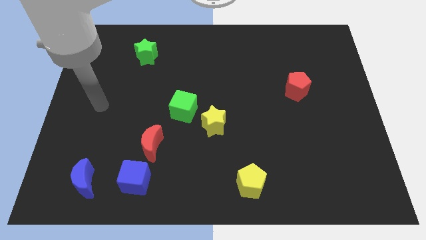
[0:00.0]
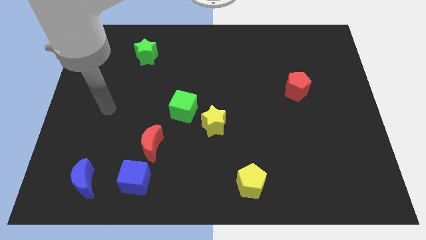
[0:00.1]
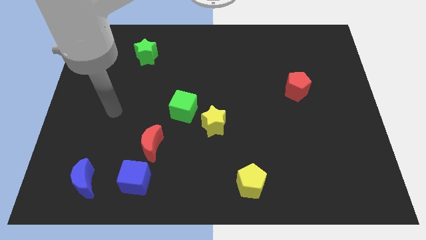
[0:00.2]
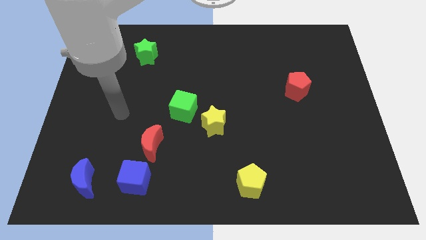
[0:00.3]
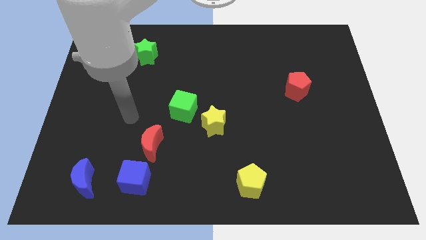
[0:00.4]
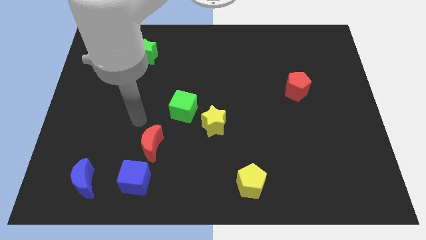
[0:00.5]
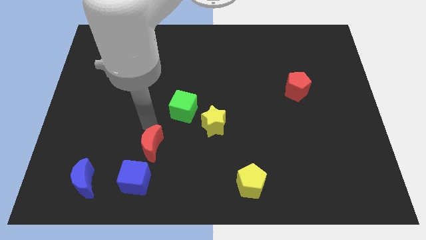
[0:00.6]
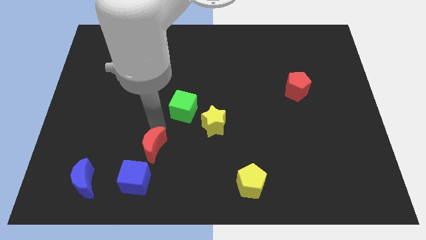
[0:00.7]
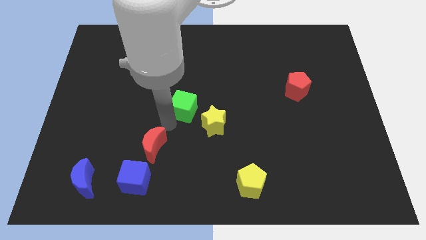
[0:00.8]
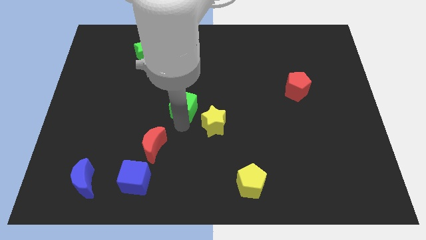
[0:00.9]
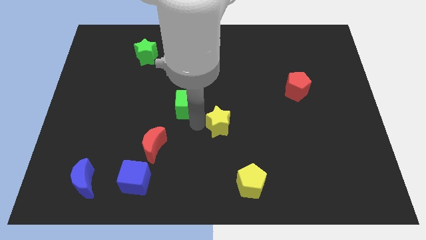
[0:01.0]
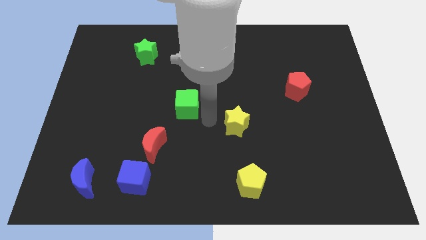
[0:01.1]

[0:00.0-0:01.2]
move the green cube away from the yellow star

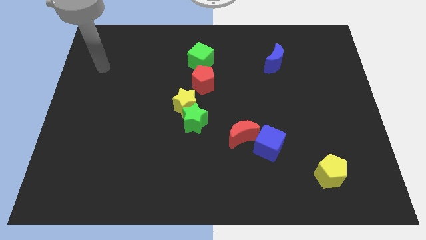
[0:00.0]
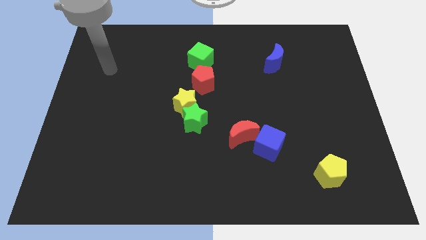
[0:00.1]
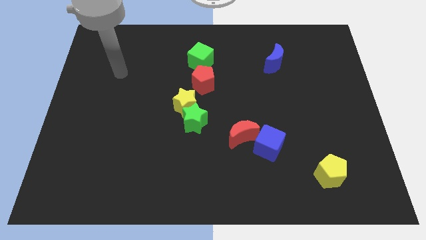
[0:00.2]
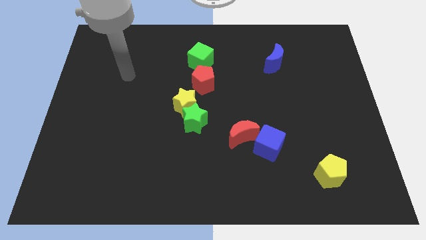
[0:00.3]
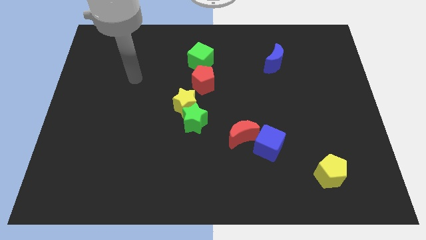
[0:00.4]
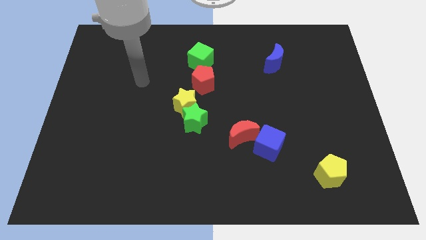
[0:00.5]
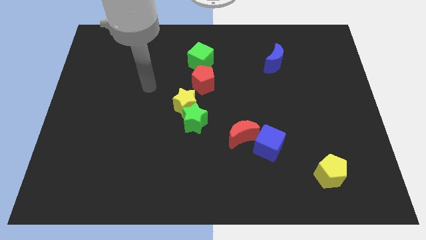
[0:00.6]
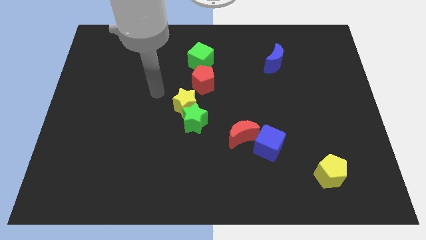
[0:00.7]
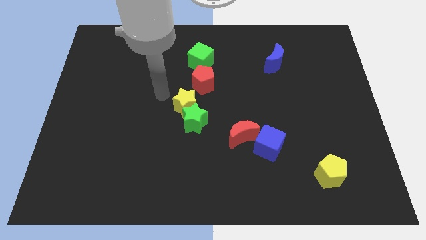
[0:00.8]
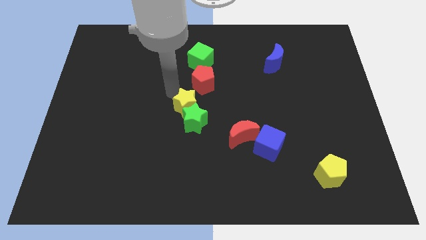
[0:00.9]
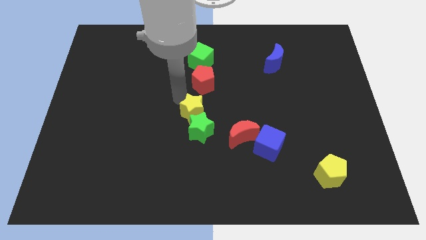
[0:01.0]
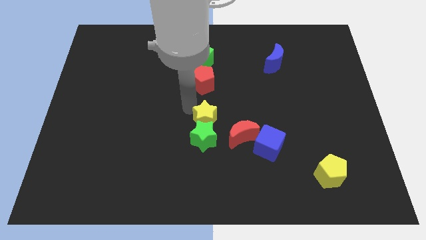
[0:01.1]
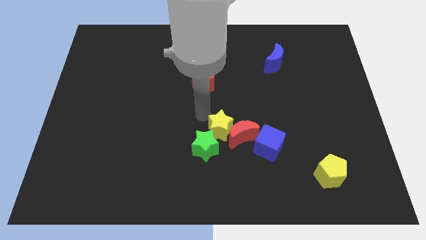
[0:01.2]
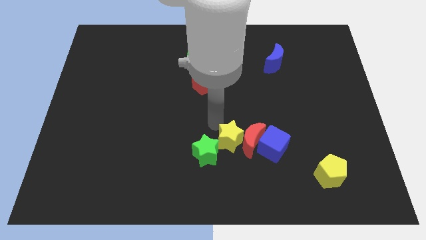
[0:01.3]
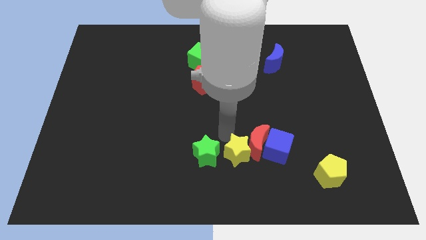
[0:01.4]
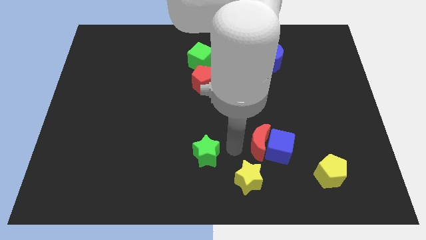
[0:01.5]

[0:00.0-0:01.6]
pull the green star apart from the yellow star

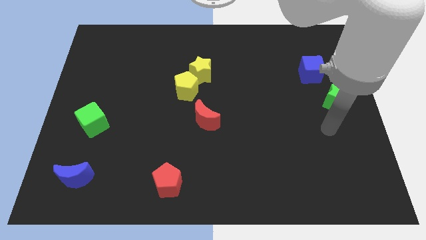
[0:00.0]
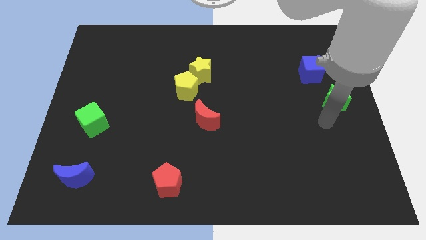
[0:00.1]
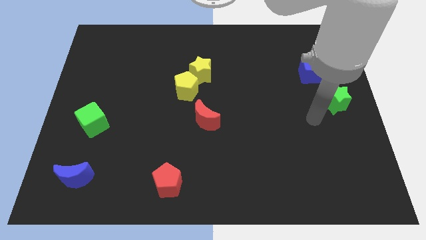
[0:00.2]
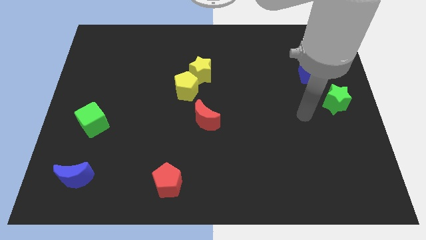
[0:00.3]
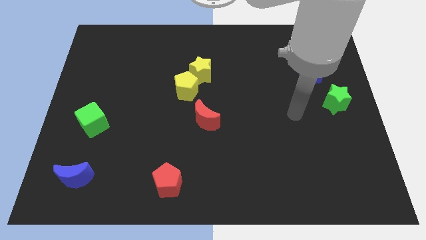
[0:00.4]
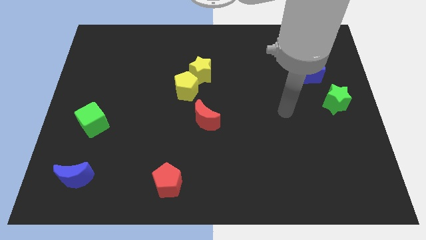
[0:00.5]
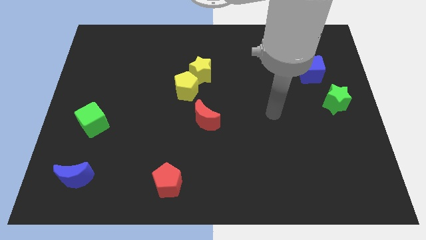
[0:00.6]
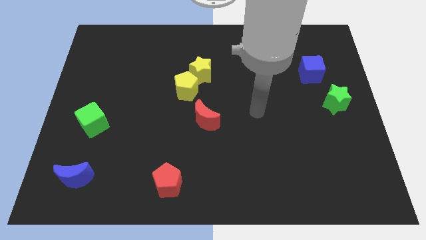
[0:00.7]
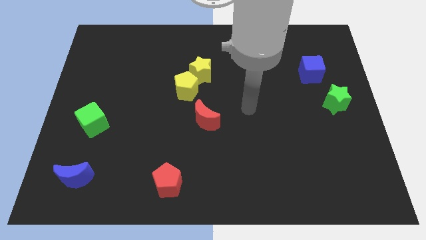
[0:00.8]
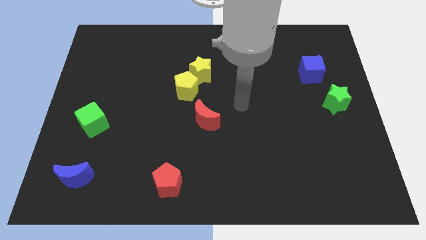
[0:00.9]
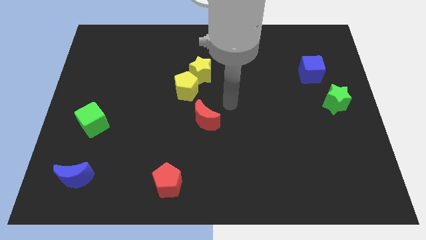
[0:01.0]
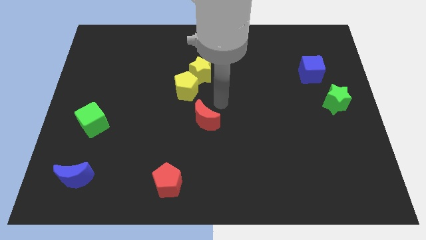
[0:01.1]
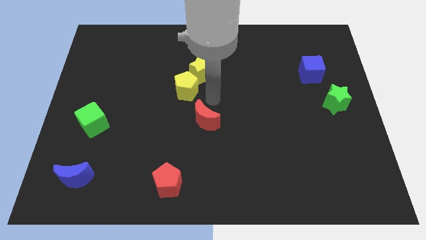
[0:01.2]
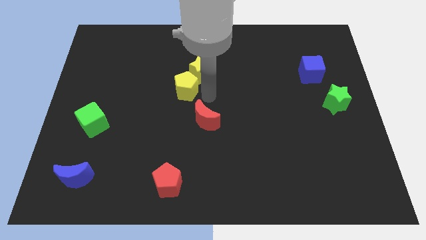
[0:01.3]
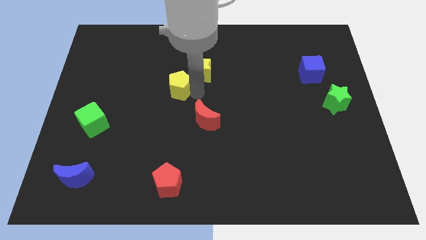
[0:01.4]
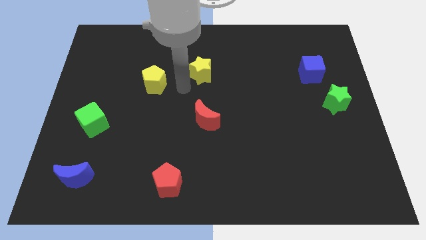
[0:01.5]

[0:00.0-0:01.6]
separate the yellow star from the yellow pentagon

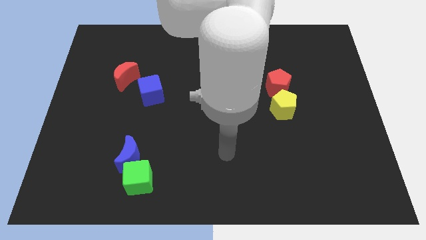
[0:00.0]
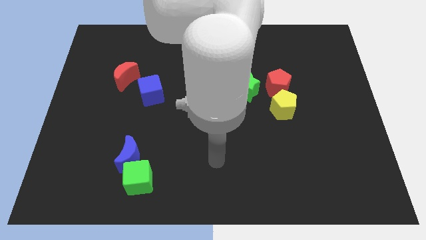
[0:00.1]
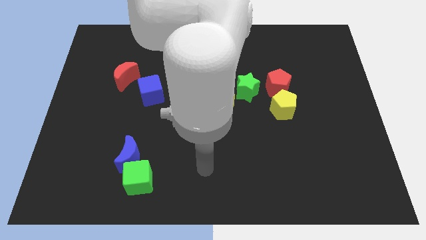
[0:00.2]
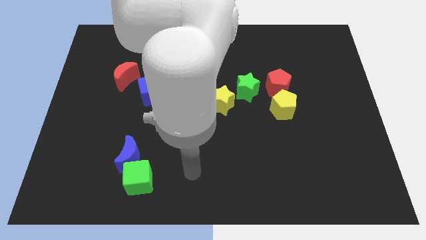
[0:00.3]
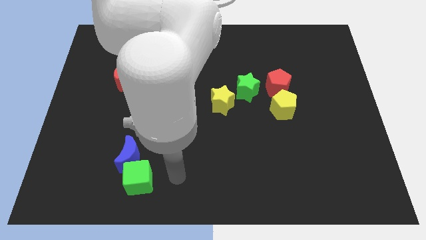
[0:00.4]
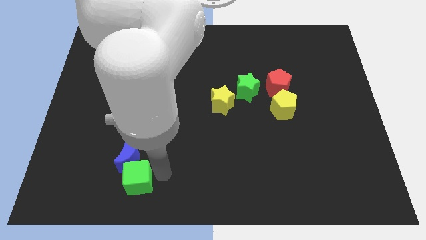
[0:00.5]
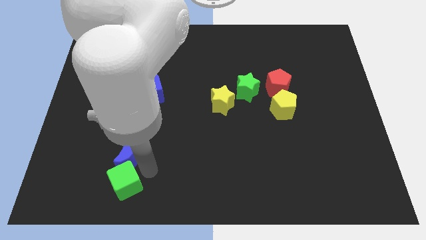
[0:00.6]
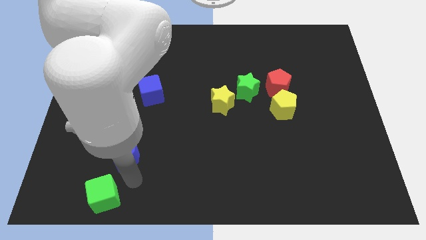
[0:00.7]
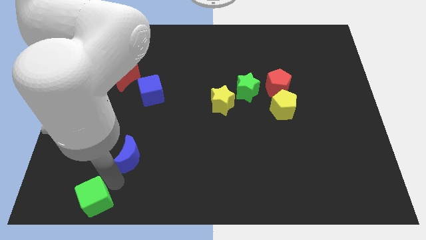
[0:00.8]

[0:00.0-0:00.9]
separate the blue moon from the green cube

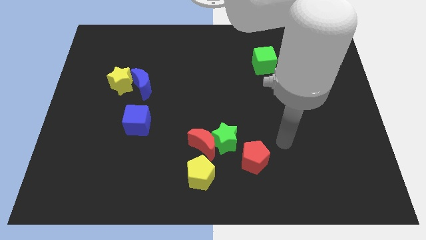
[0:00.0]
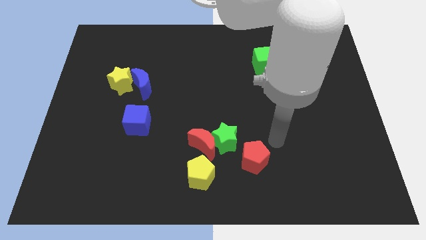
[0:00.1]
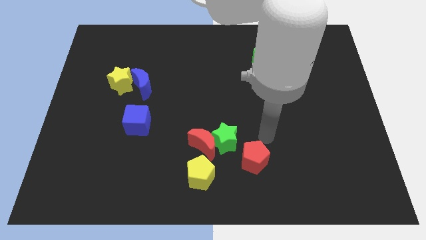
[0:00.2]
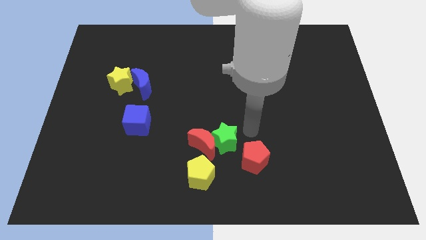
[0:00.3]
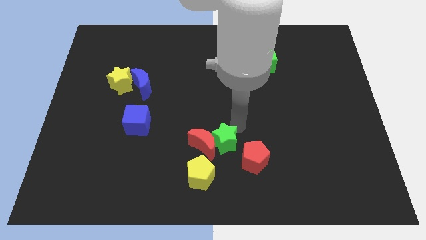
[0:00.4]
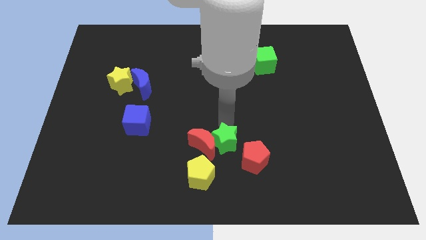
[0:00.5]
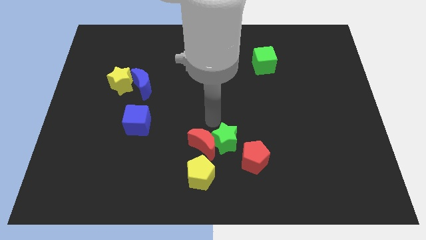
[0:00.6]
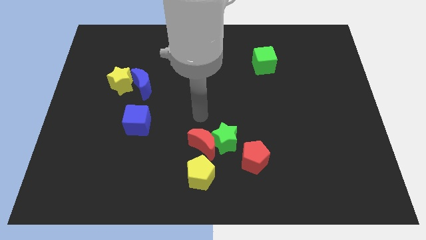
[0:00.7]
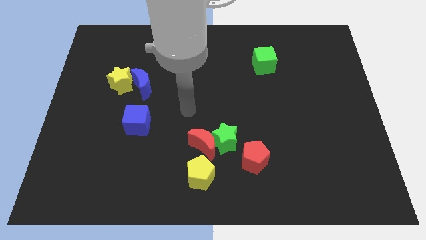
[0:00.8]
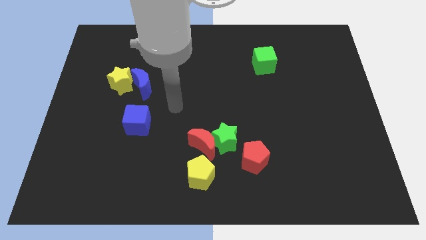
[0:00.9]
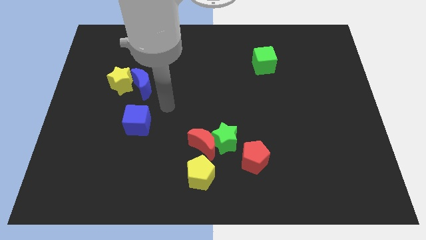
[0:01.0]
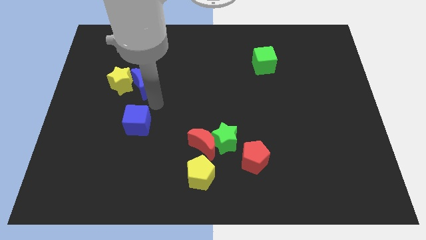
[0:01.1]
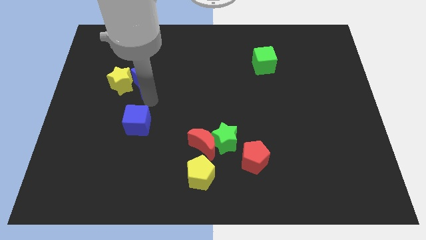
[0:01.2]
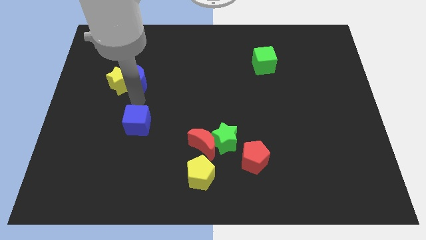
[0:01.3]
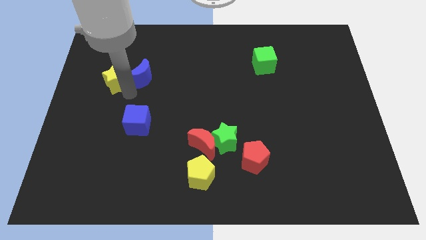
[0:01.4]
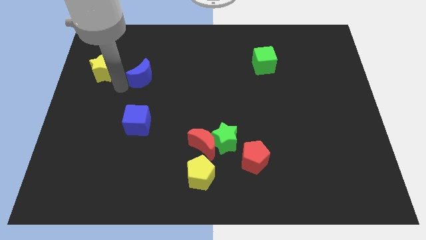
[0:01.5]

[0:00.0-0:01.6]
pull the blue moon apart from the yellow star

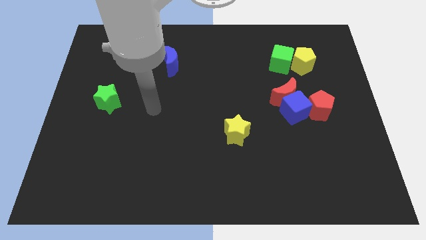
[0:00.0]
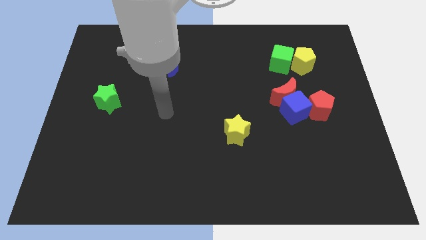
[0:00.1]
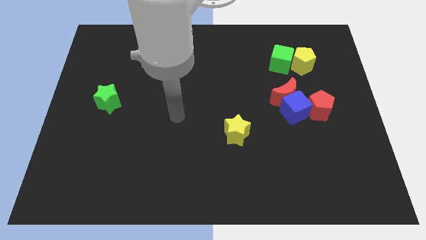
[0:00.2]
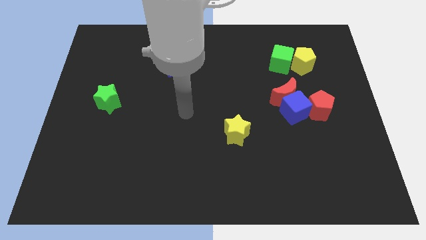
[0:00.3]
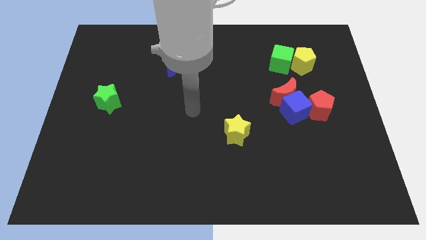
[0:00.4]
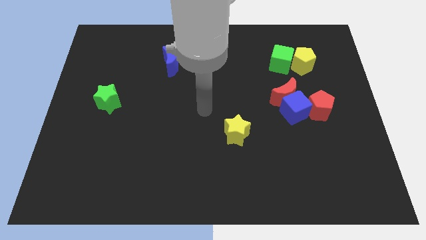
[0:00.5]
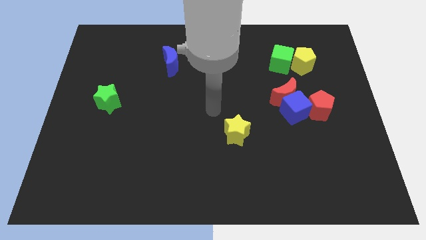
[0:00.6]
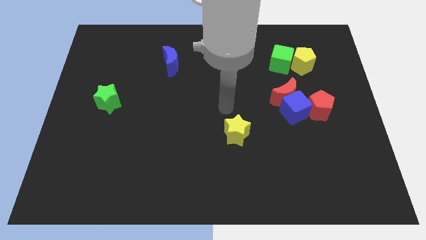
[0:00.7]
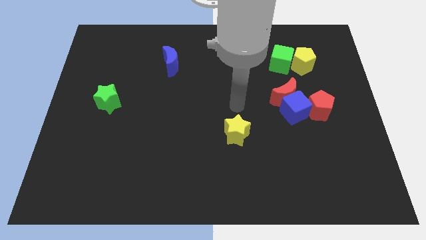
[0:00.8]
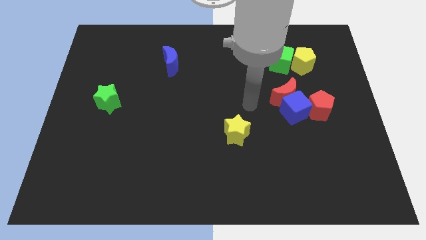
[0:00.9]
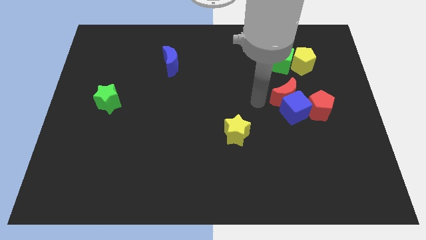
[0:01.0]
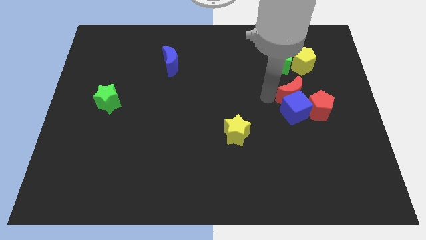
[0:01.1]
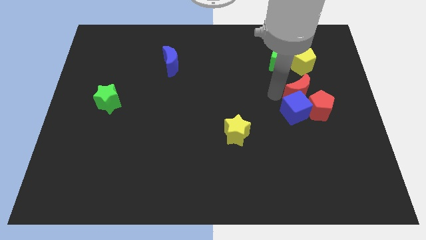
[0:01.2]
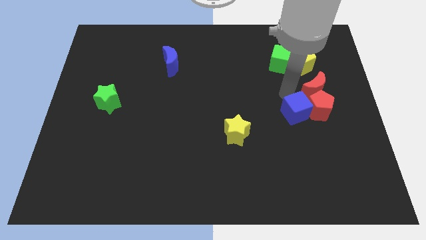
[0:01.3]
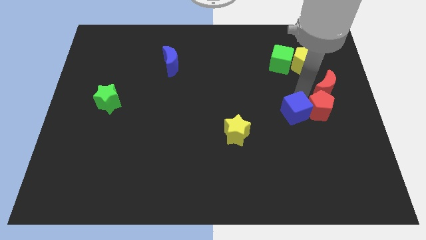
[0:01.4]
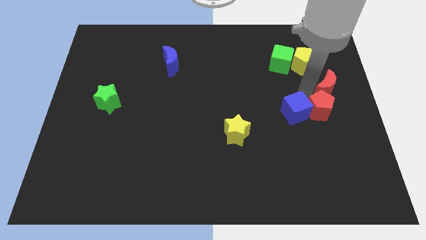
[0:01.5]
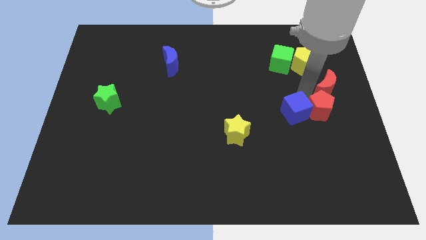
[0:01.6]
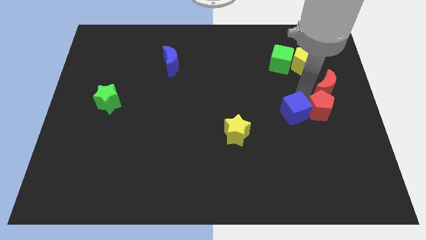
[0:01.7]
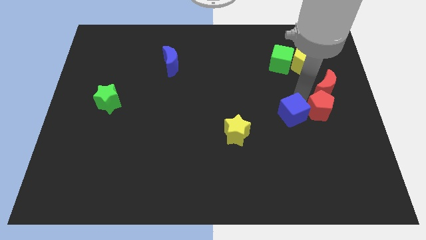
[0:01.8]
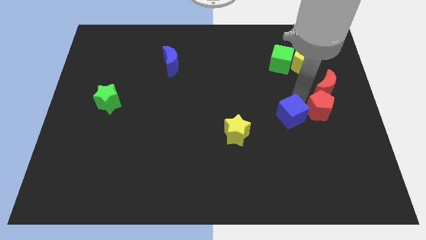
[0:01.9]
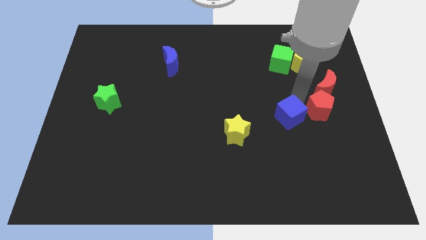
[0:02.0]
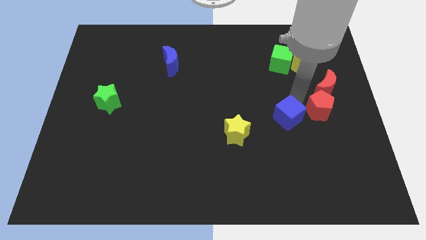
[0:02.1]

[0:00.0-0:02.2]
separate the blue cube from the red moon and red pentagon
